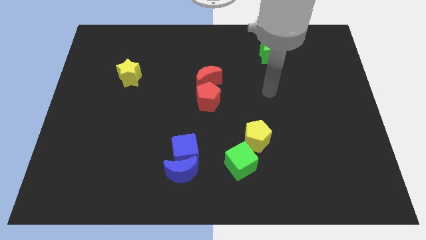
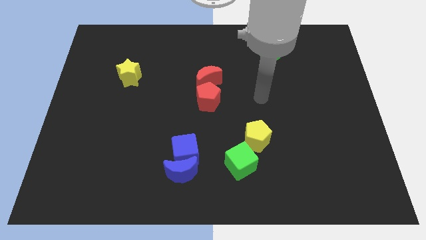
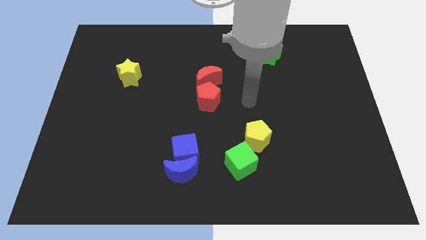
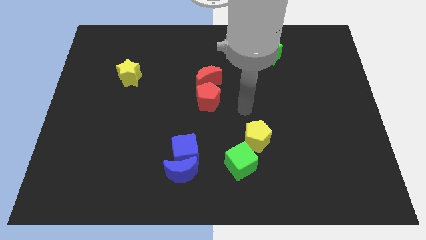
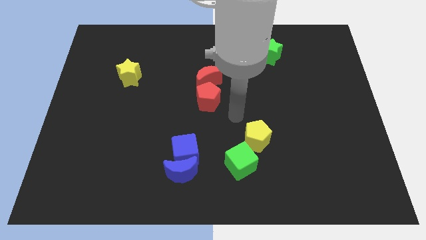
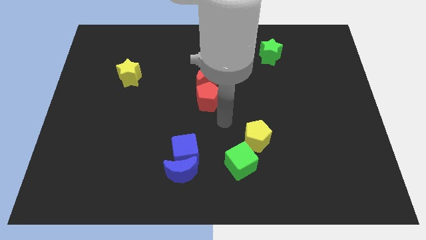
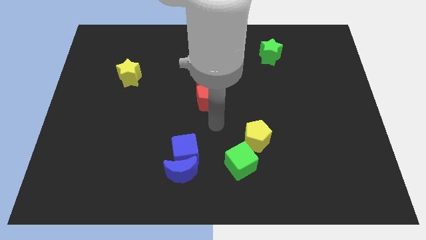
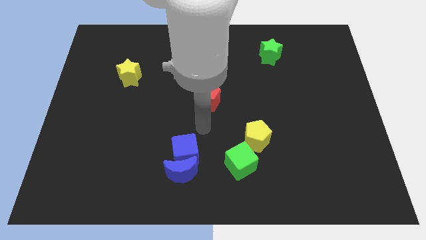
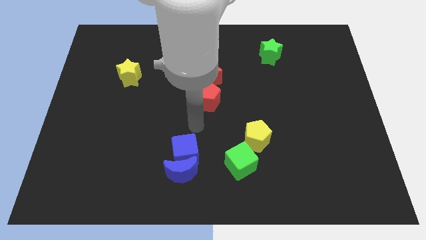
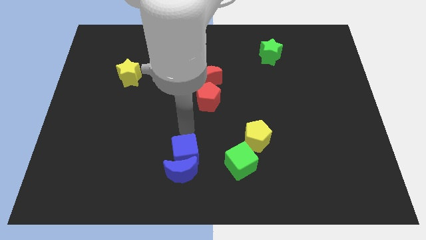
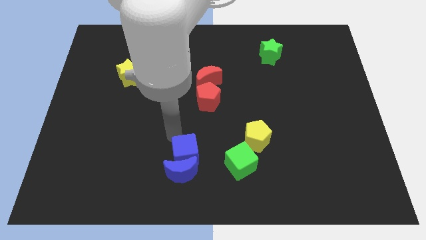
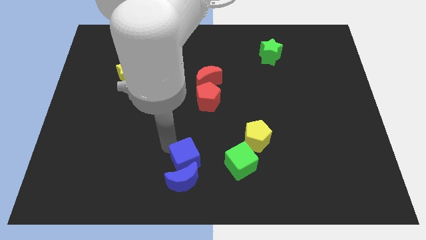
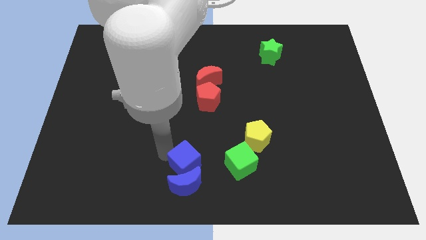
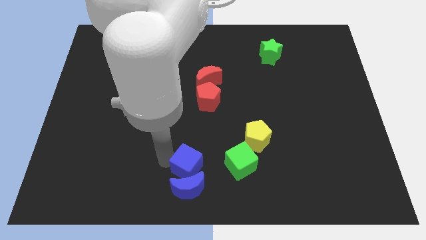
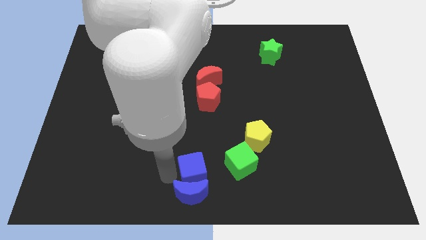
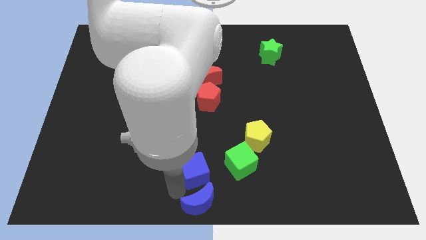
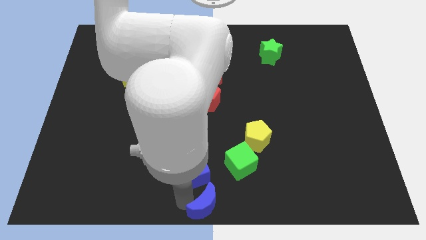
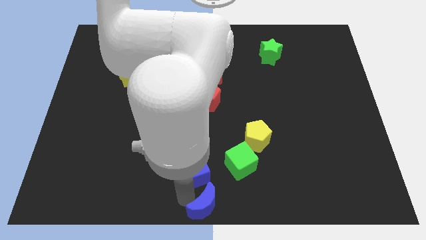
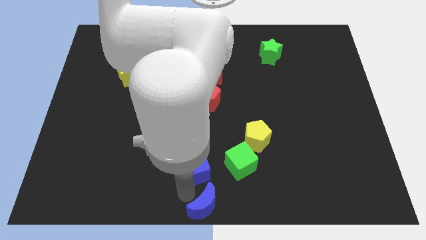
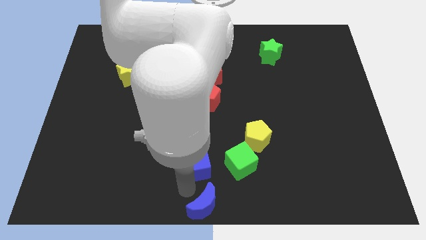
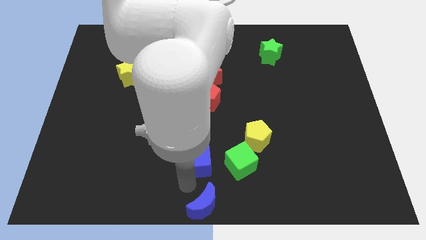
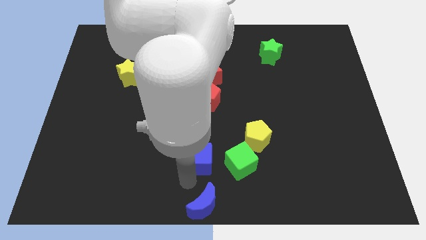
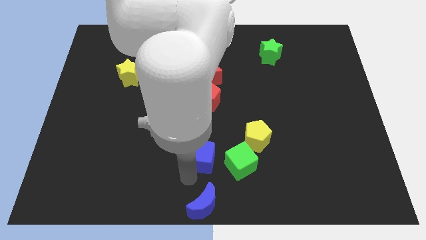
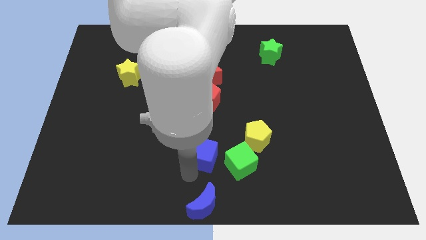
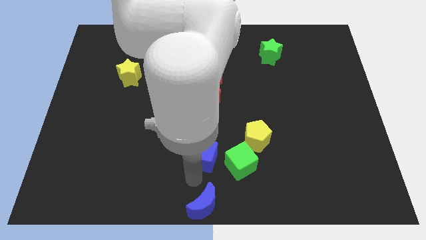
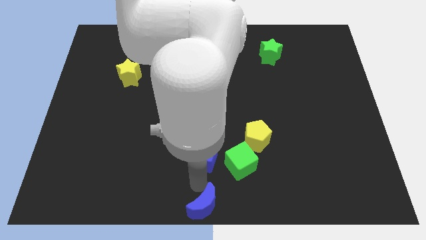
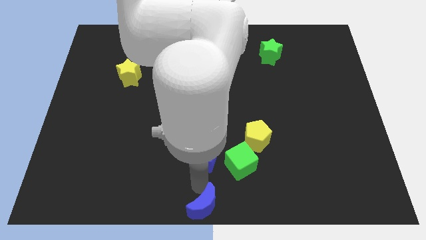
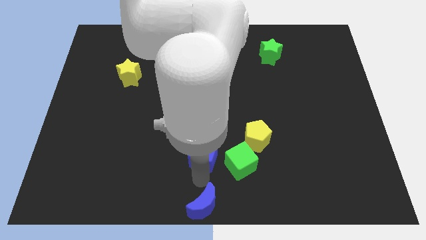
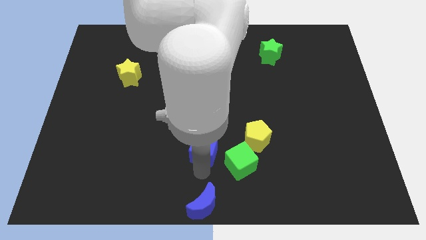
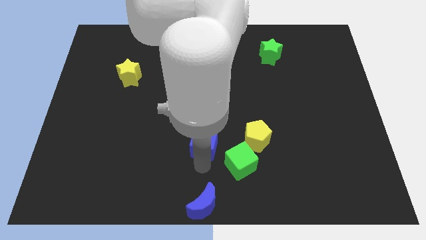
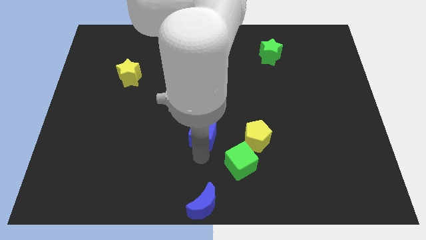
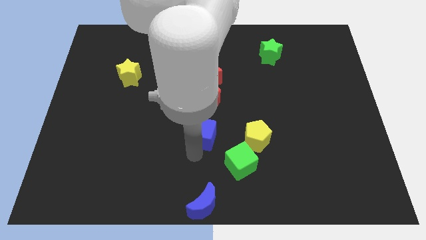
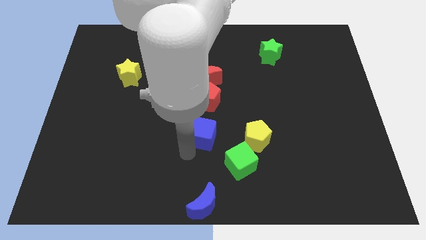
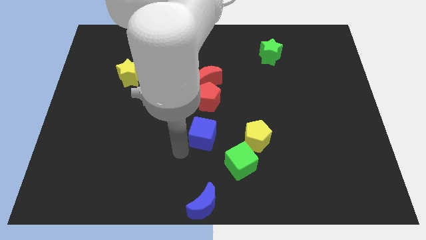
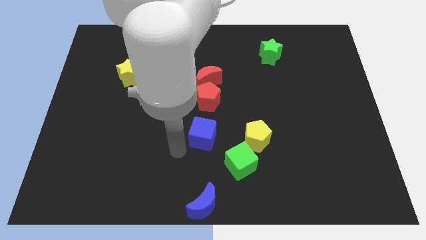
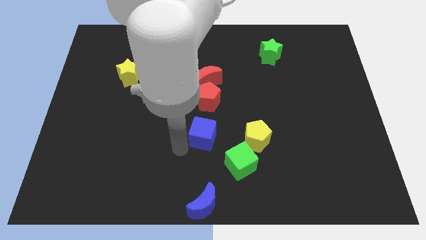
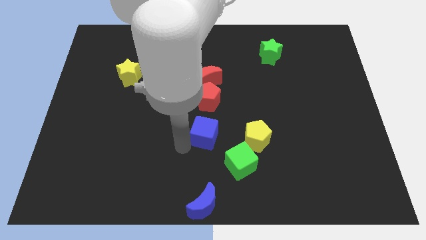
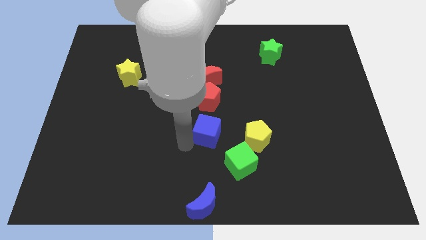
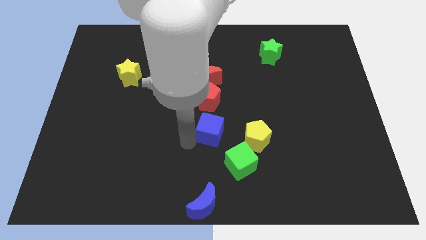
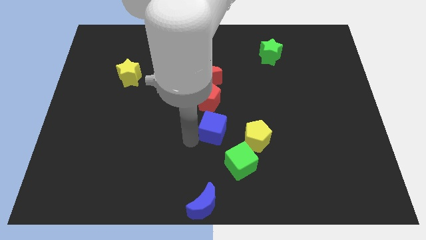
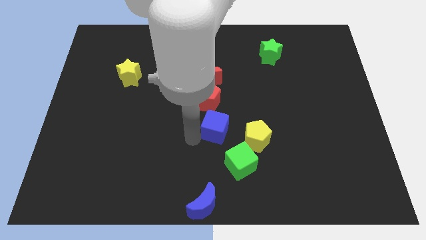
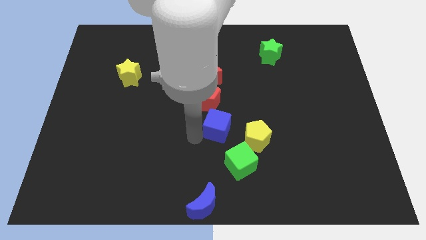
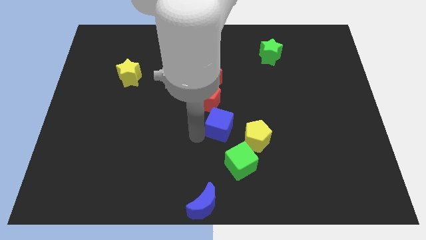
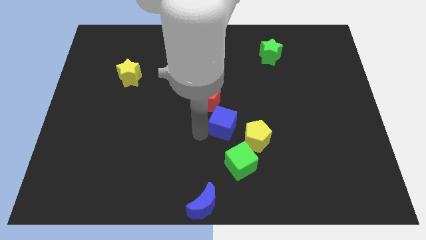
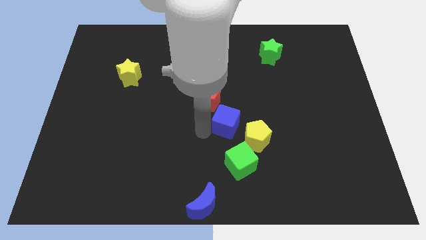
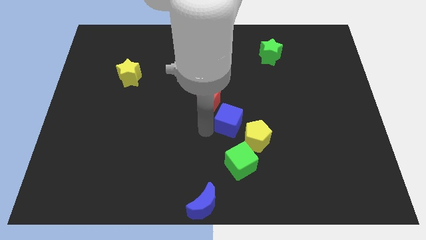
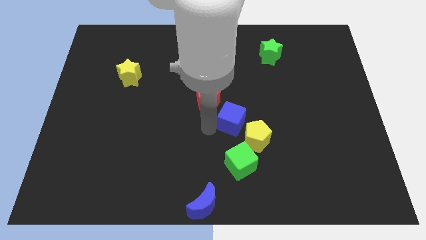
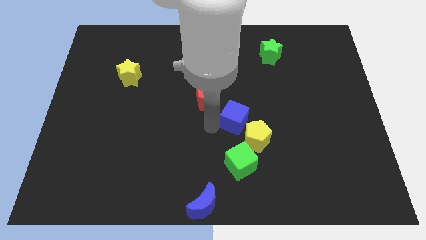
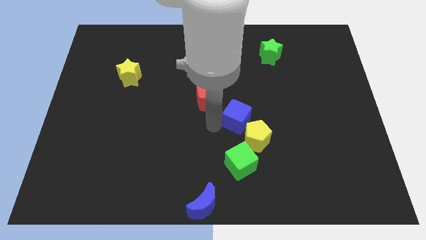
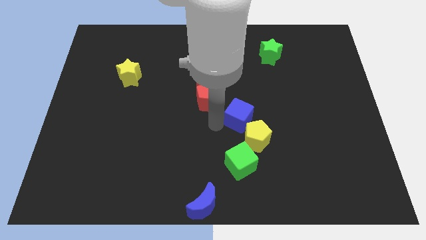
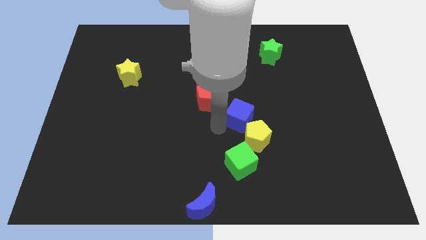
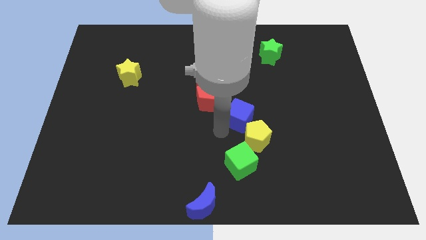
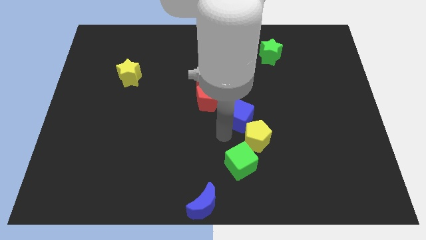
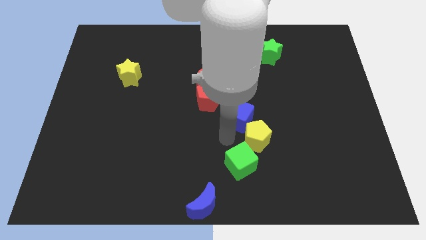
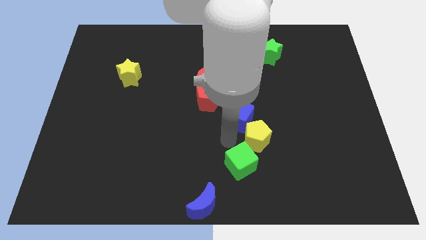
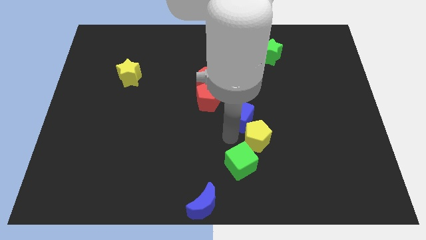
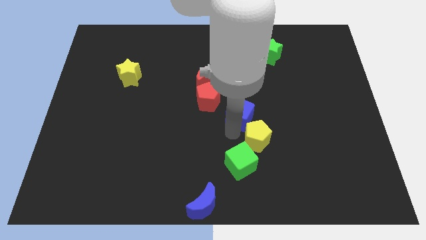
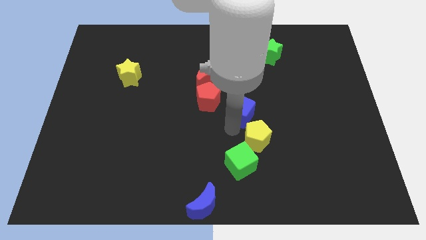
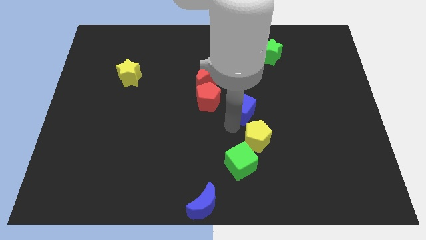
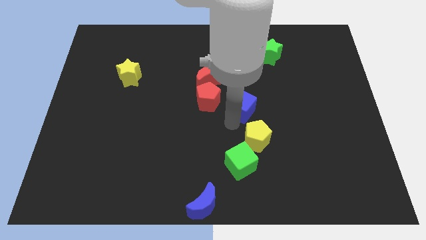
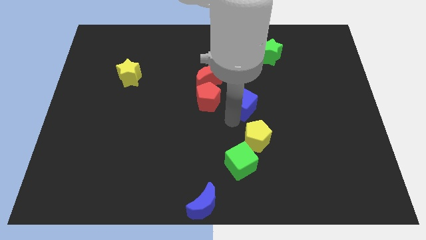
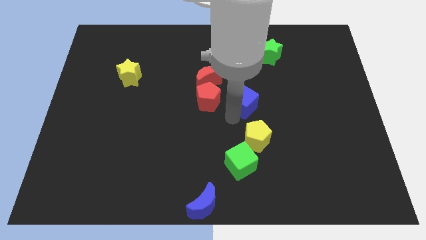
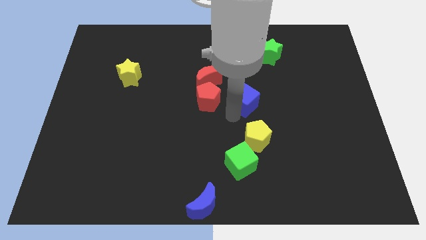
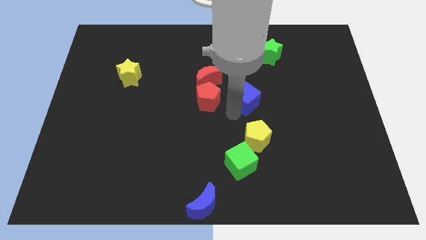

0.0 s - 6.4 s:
push the blue cube up and right diagonally

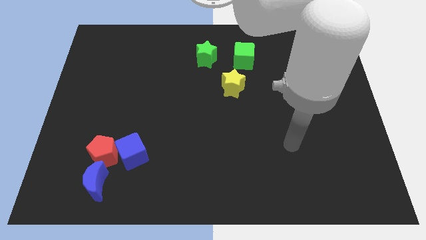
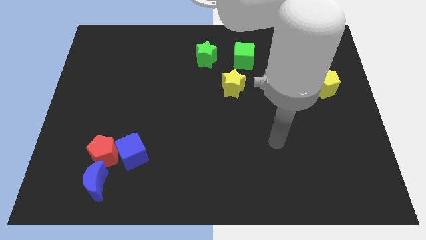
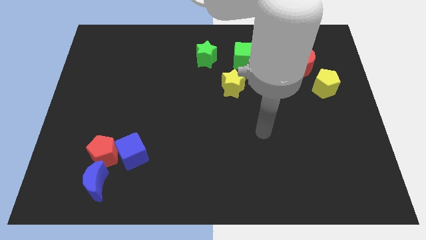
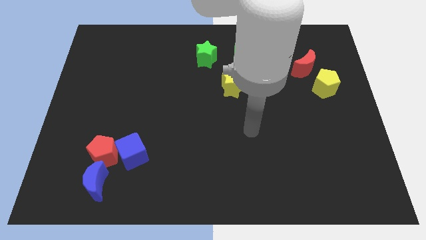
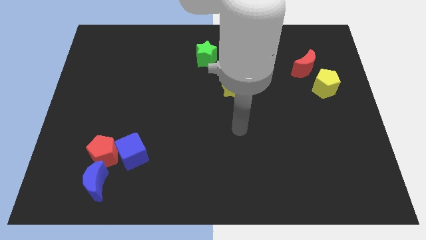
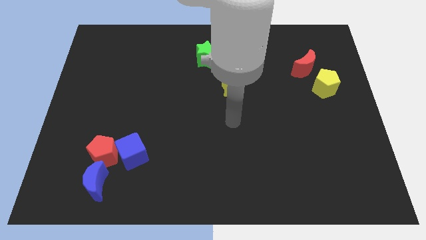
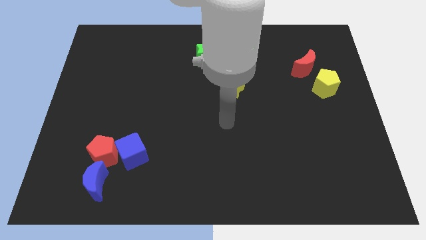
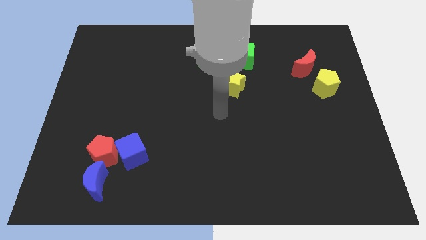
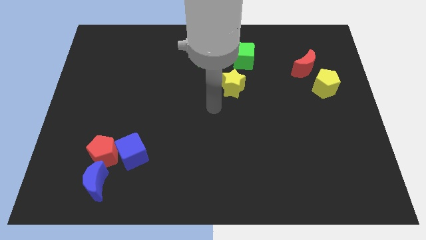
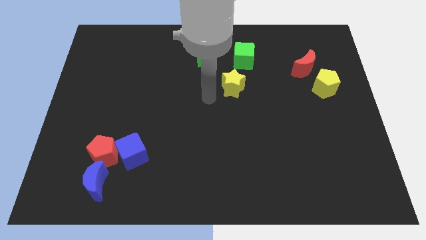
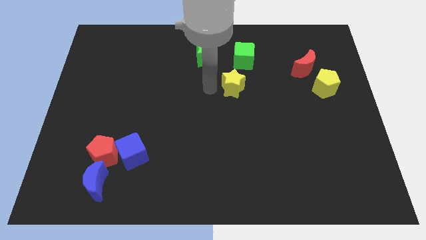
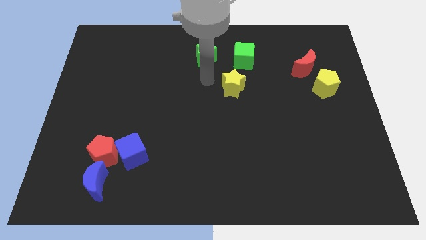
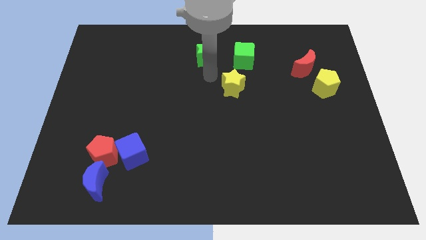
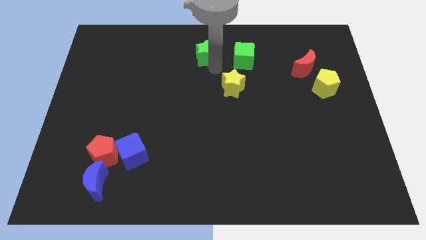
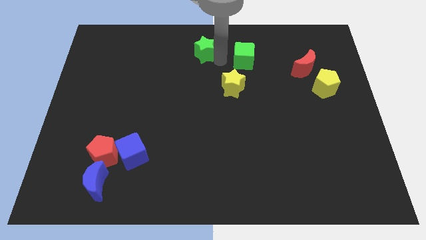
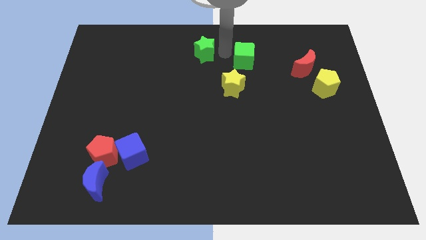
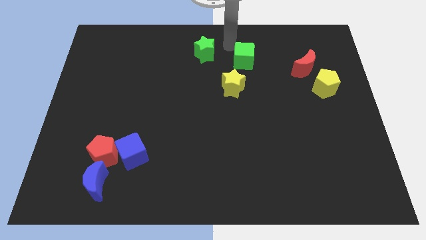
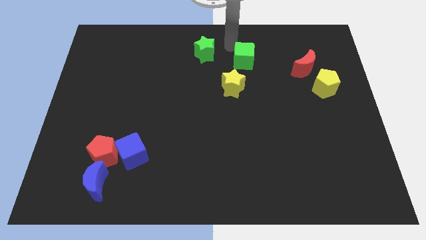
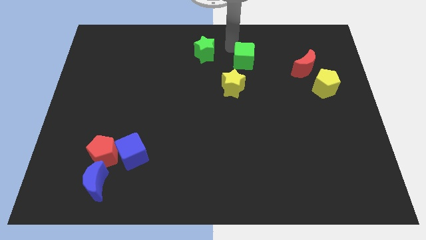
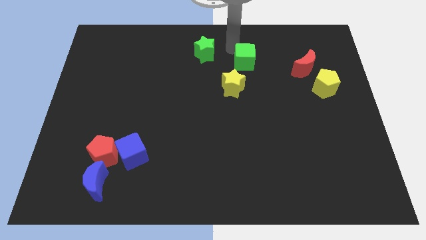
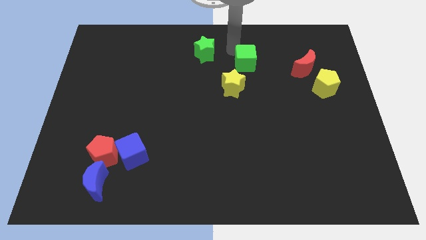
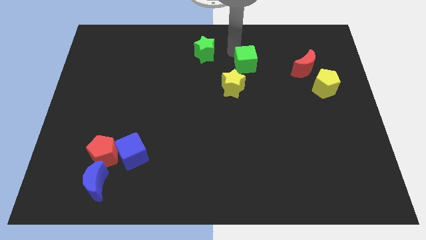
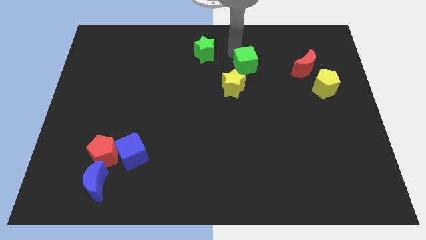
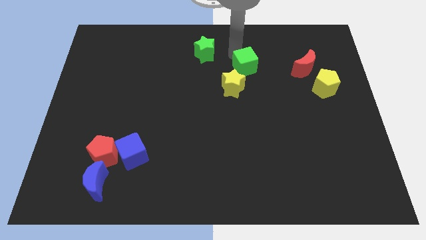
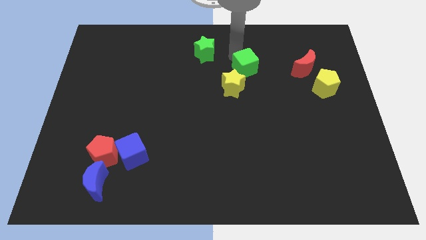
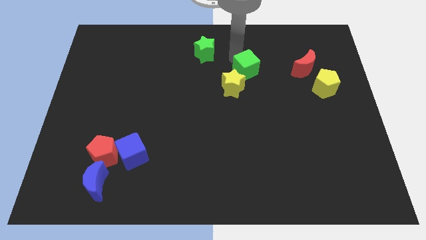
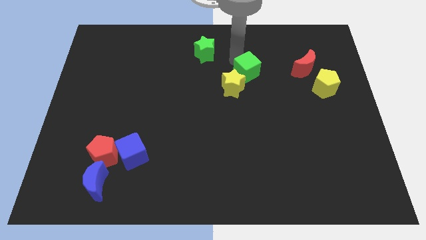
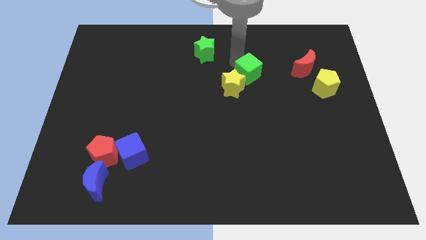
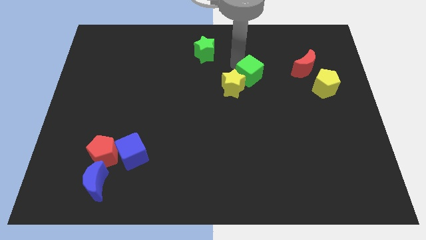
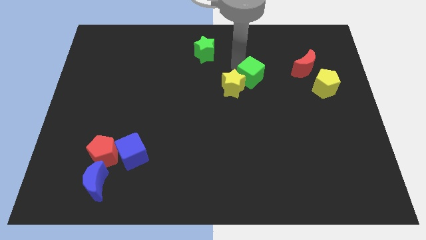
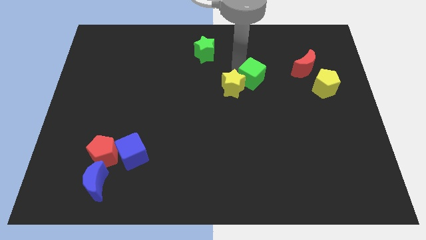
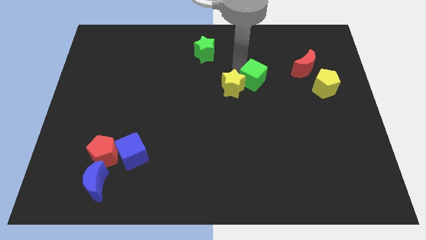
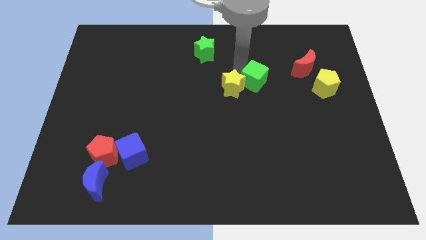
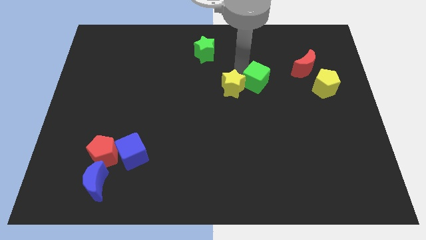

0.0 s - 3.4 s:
slide the green cube a bit downwards and to the right
